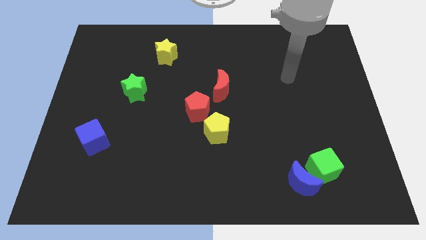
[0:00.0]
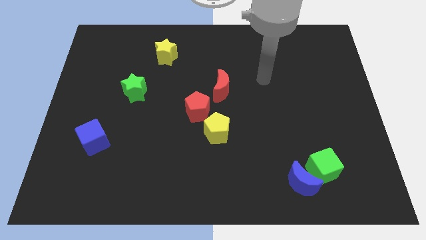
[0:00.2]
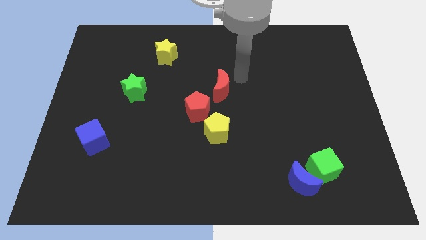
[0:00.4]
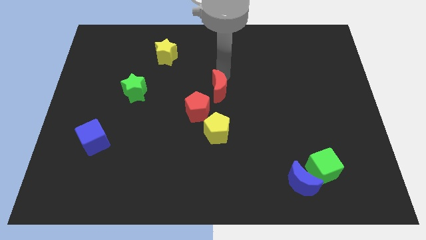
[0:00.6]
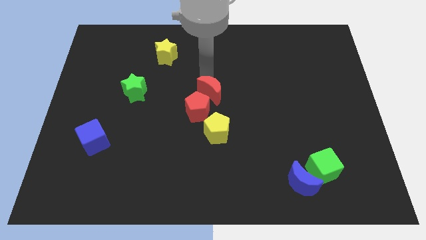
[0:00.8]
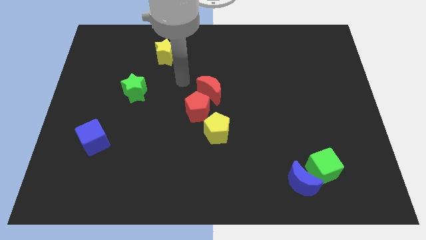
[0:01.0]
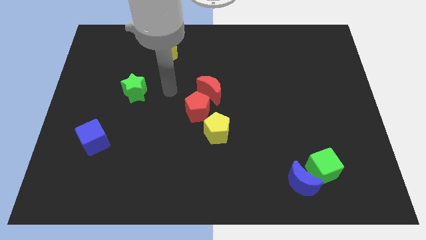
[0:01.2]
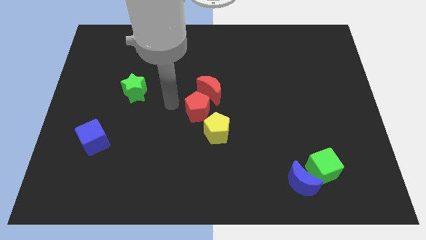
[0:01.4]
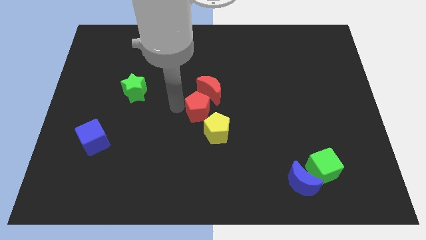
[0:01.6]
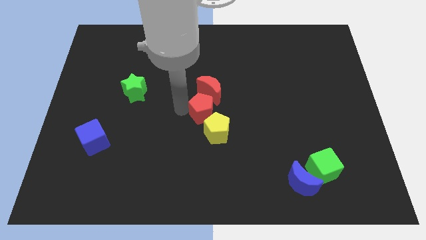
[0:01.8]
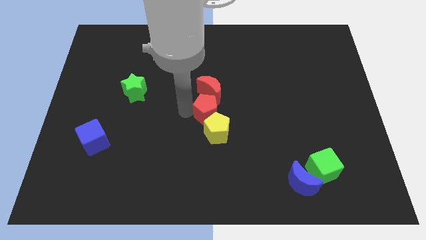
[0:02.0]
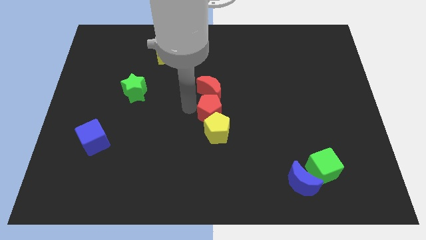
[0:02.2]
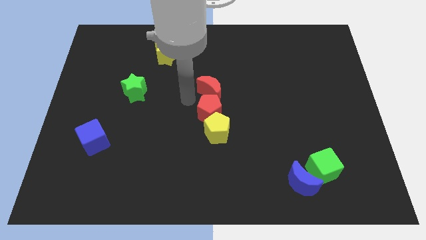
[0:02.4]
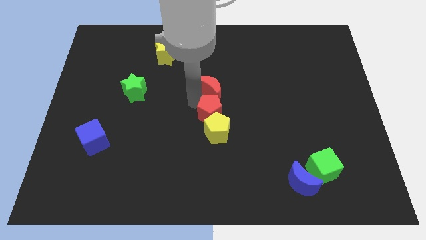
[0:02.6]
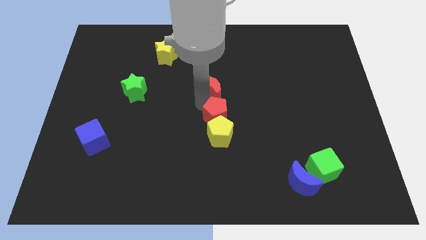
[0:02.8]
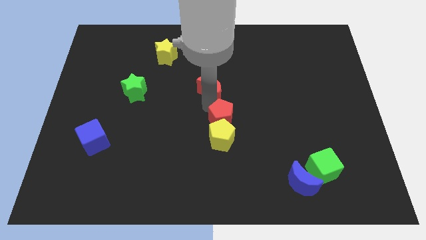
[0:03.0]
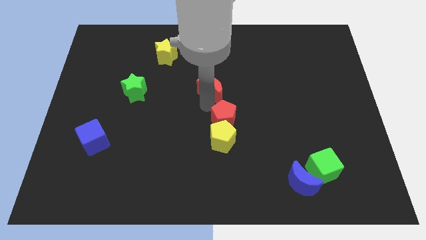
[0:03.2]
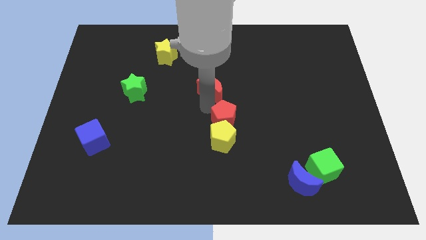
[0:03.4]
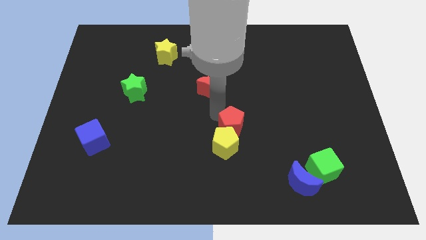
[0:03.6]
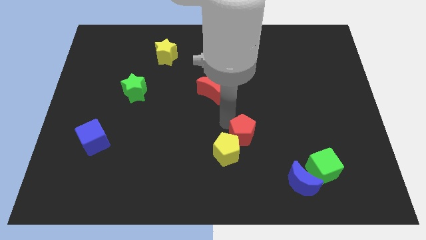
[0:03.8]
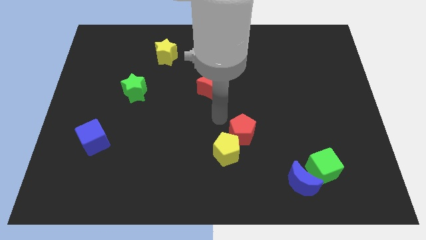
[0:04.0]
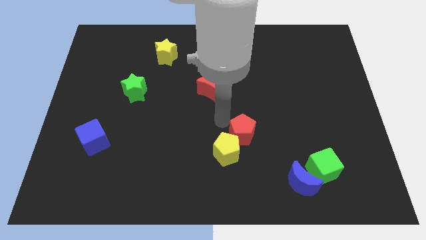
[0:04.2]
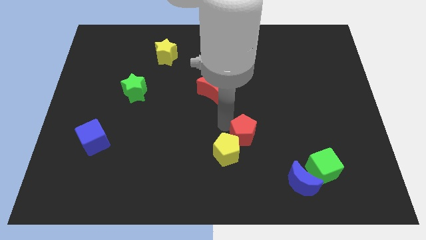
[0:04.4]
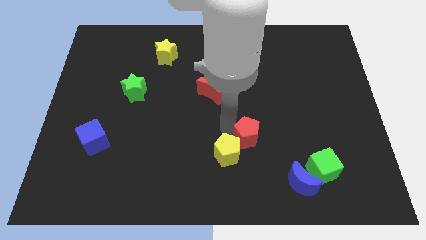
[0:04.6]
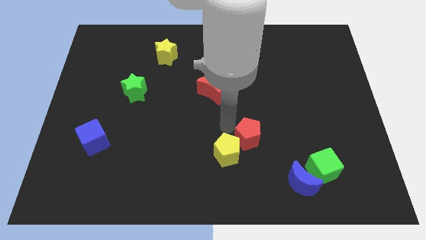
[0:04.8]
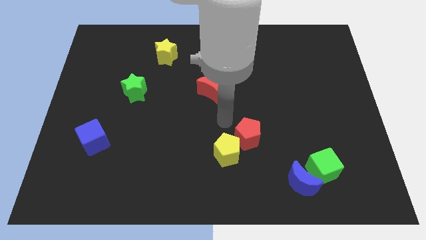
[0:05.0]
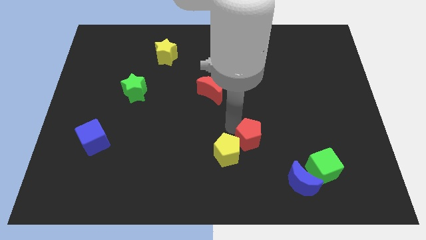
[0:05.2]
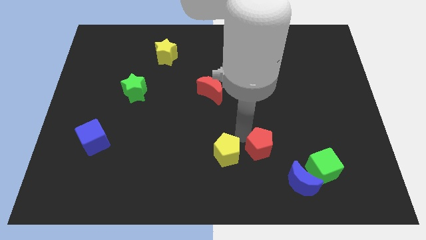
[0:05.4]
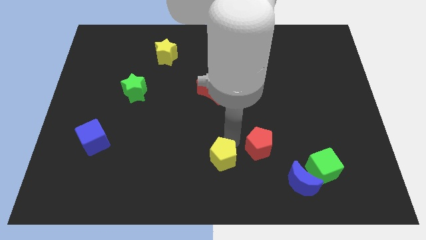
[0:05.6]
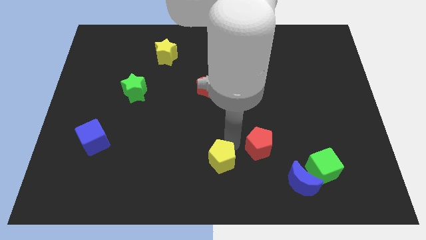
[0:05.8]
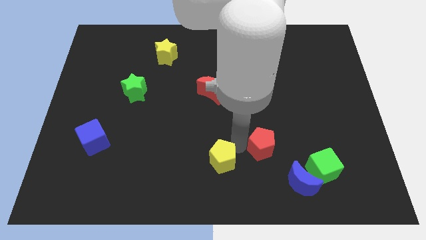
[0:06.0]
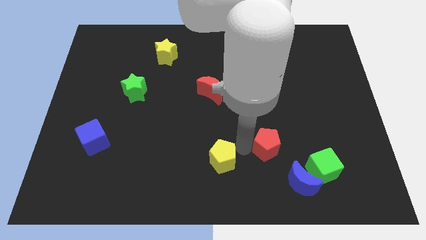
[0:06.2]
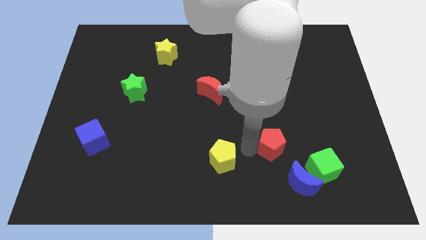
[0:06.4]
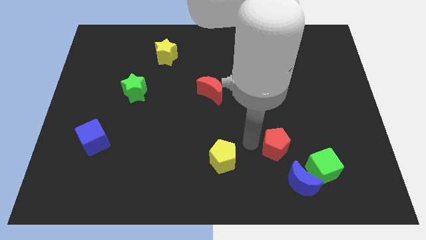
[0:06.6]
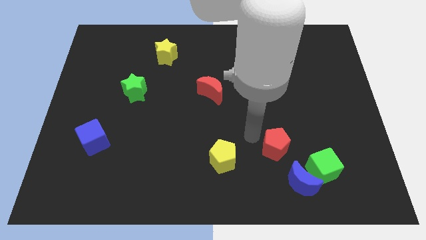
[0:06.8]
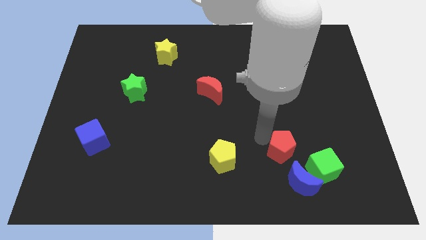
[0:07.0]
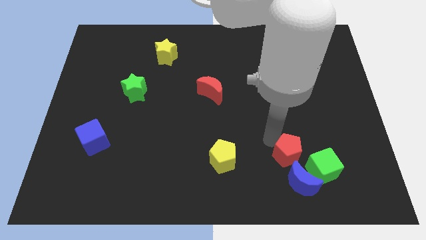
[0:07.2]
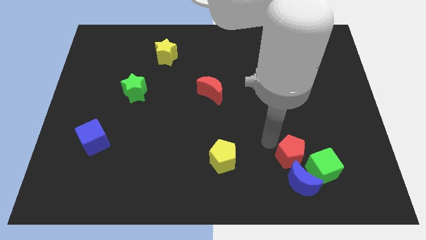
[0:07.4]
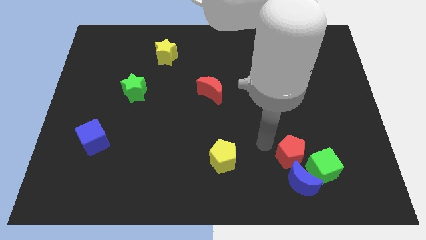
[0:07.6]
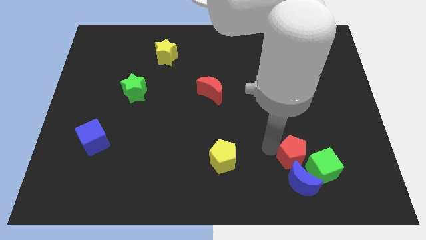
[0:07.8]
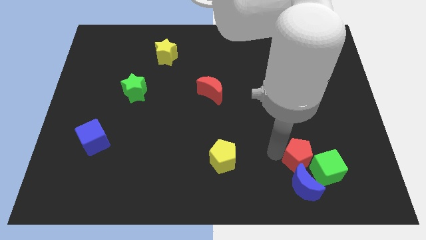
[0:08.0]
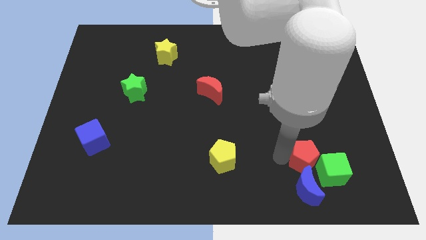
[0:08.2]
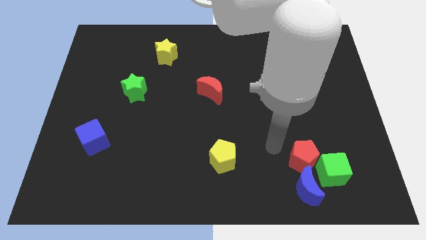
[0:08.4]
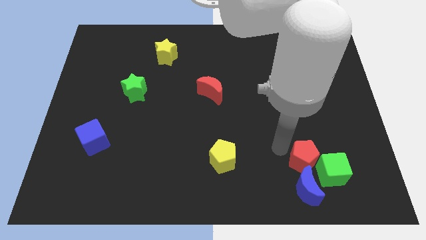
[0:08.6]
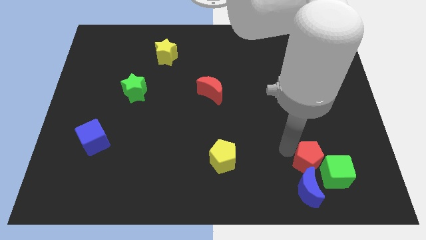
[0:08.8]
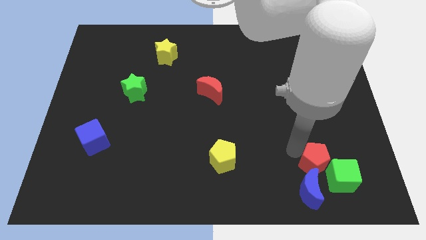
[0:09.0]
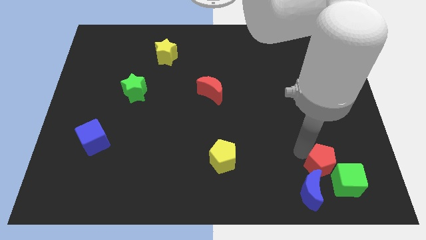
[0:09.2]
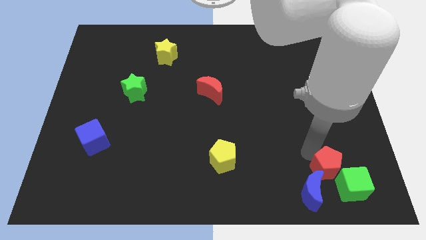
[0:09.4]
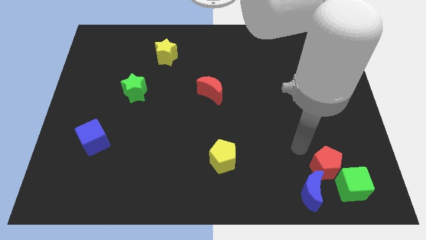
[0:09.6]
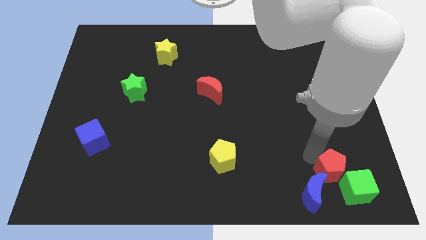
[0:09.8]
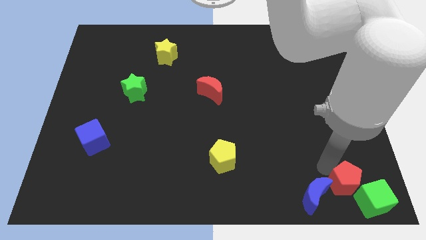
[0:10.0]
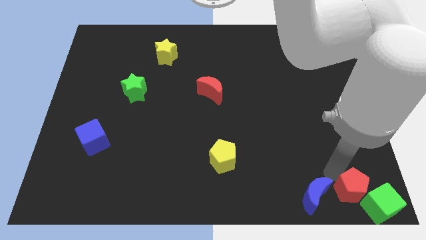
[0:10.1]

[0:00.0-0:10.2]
move the red pentagon next to the green cube

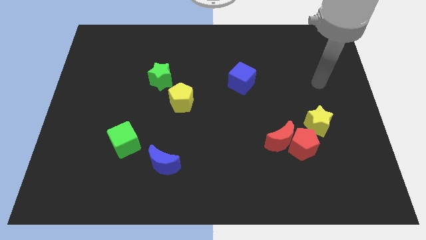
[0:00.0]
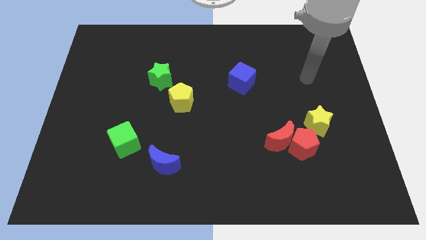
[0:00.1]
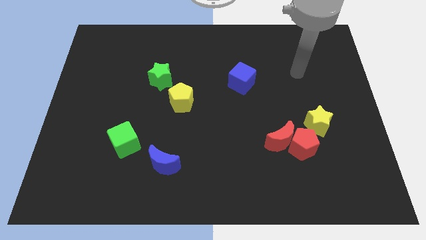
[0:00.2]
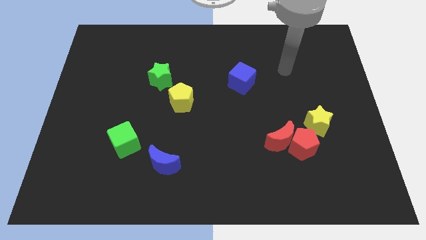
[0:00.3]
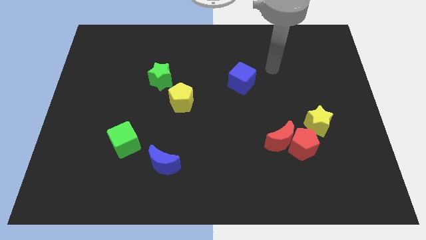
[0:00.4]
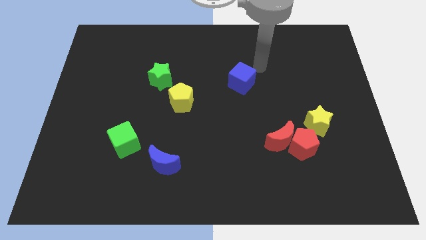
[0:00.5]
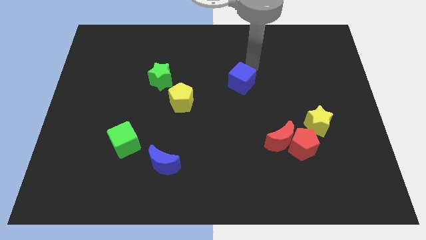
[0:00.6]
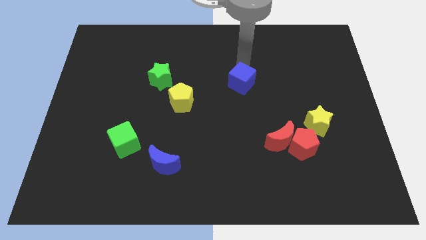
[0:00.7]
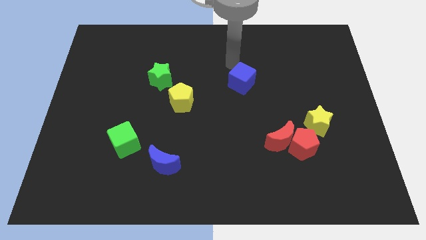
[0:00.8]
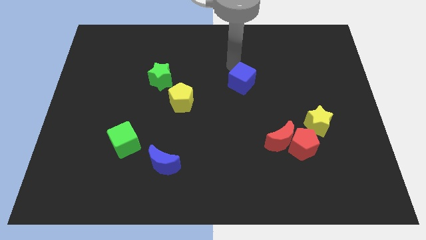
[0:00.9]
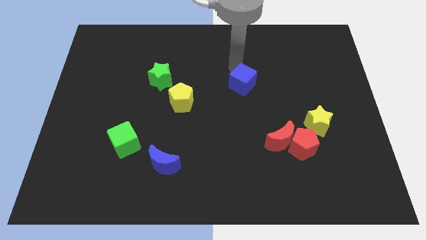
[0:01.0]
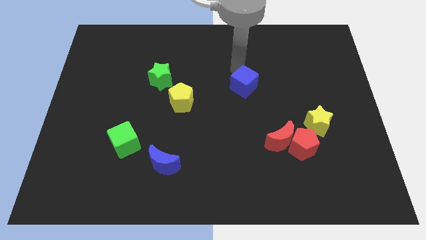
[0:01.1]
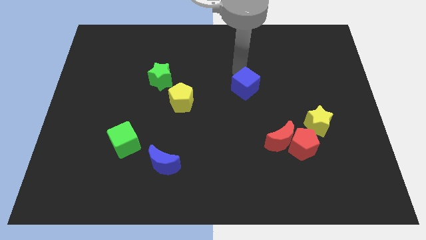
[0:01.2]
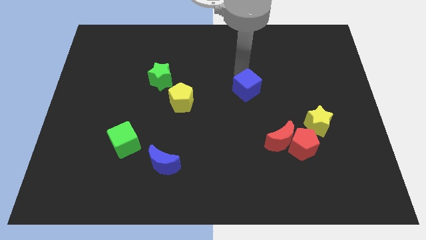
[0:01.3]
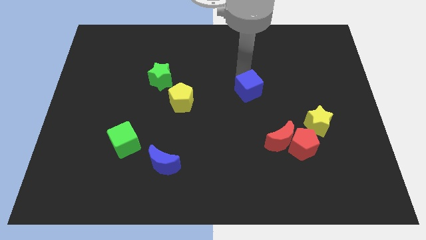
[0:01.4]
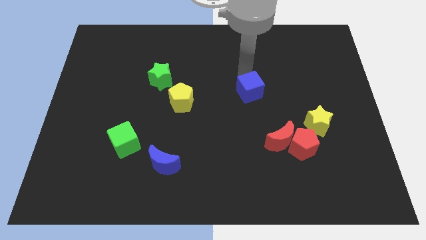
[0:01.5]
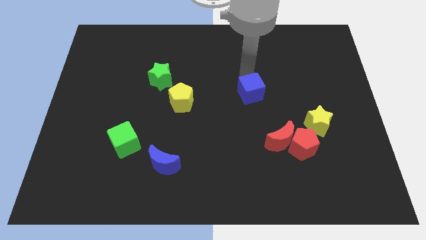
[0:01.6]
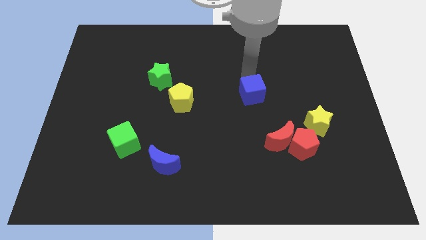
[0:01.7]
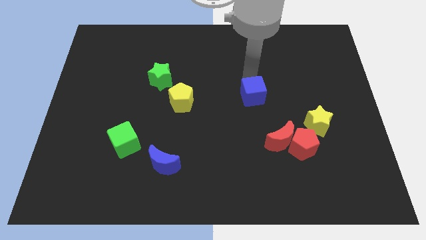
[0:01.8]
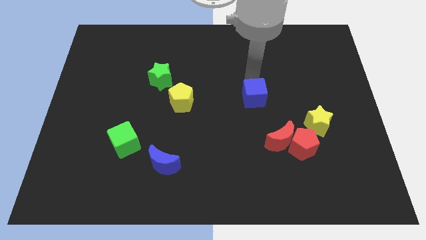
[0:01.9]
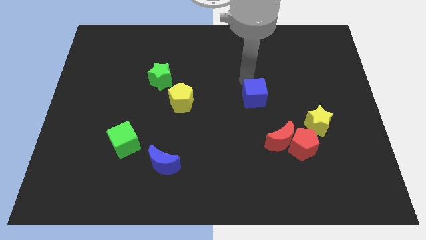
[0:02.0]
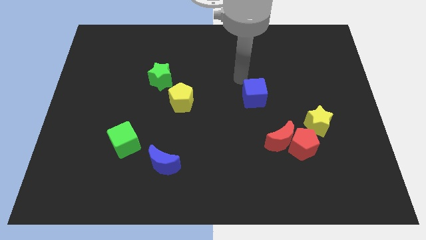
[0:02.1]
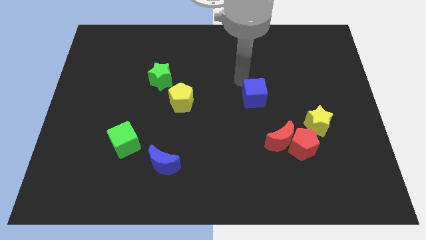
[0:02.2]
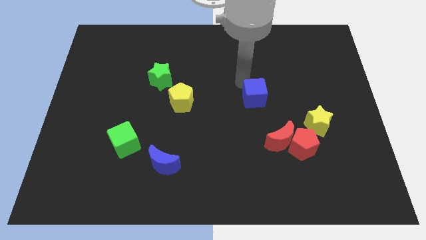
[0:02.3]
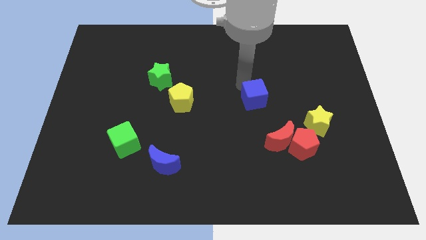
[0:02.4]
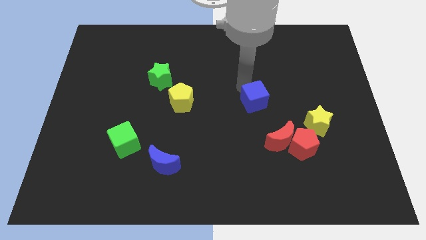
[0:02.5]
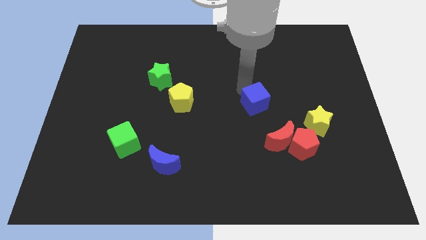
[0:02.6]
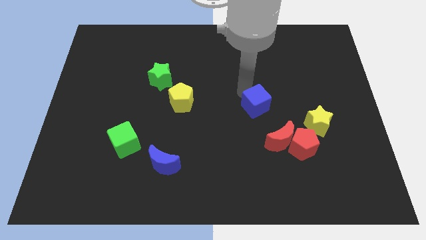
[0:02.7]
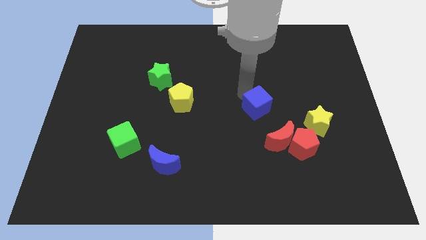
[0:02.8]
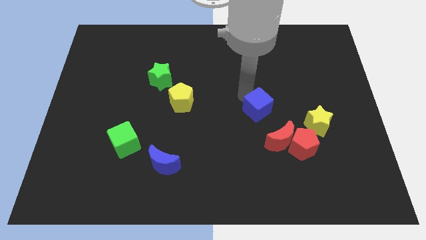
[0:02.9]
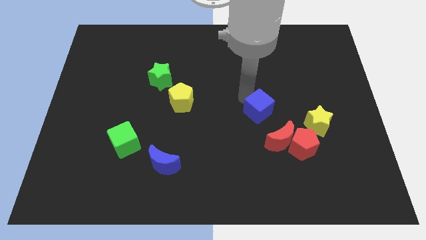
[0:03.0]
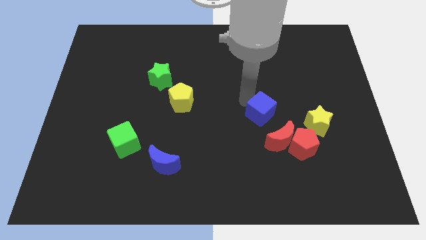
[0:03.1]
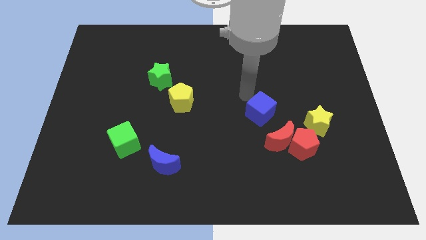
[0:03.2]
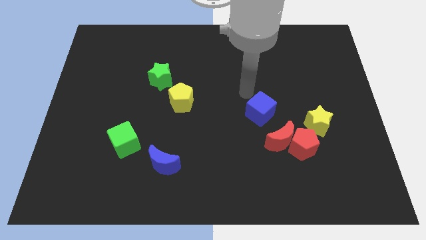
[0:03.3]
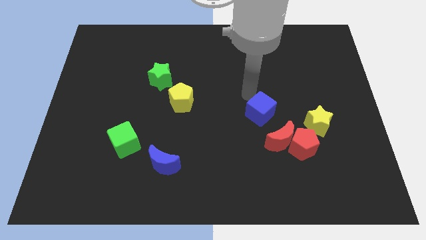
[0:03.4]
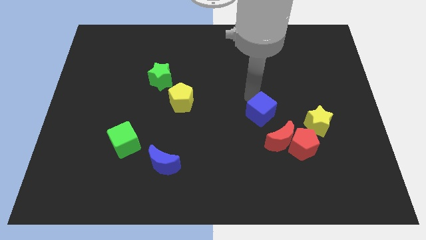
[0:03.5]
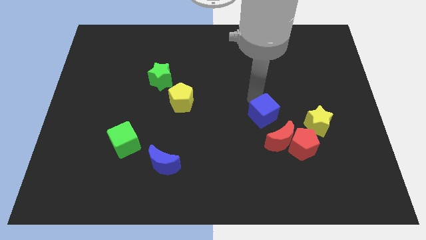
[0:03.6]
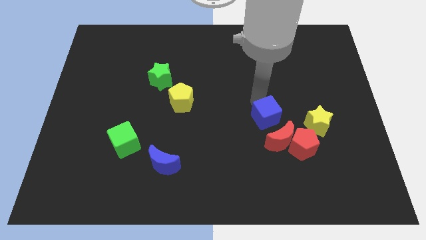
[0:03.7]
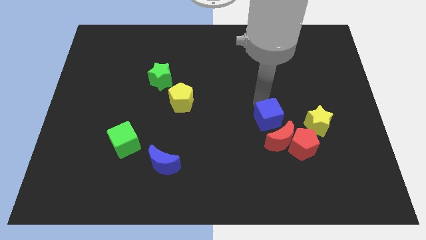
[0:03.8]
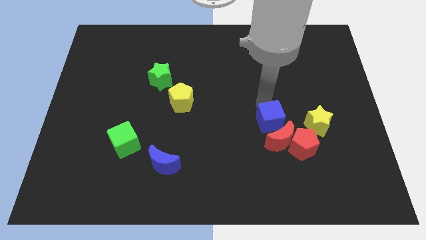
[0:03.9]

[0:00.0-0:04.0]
slide the blue cube towards the red moon
